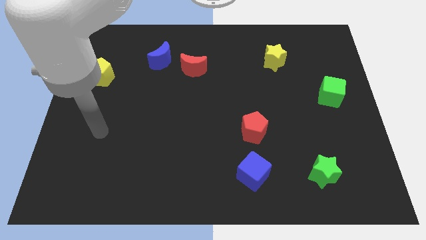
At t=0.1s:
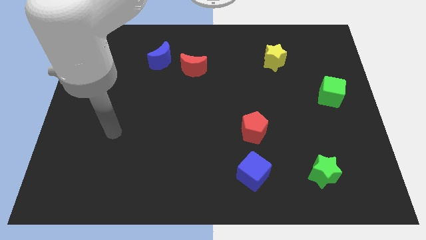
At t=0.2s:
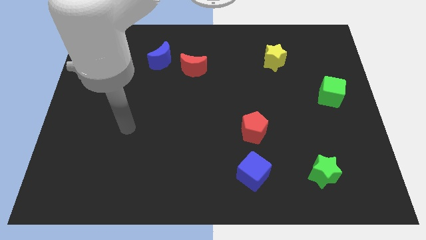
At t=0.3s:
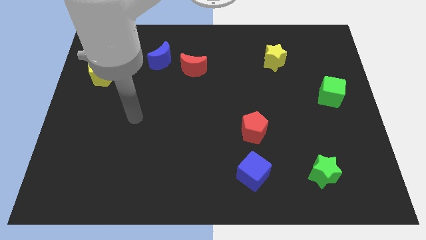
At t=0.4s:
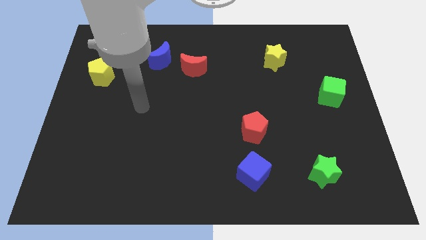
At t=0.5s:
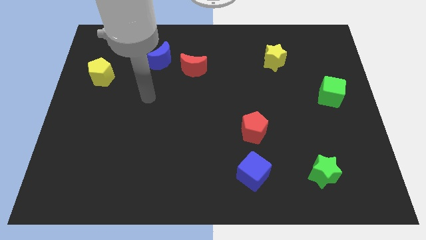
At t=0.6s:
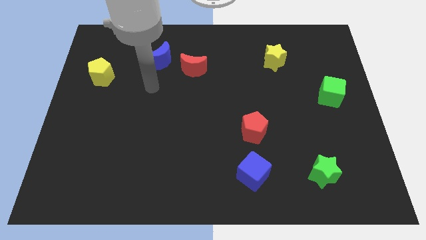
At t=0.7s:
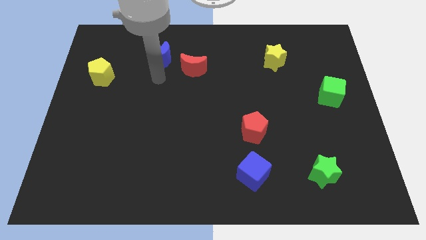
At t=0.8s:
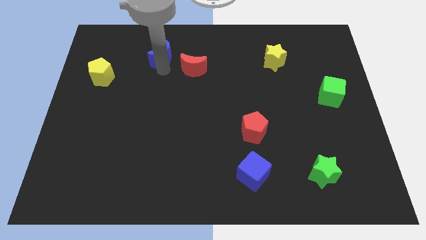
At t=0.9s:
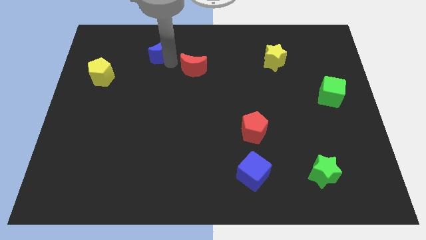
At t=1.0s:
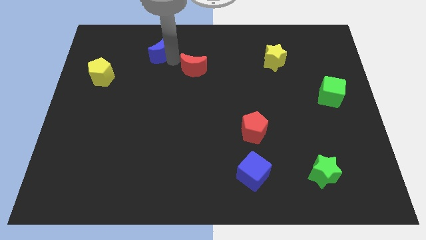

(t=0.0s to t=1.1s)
pull the red moon apart from the blue moon

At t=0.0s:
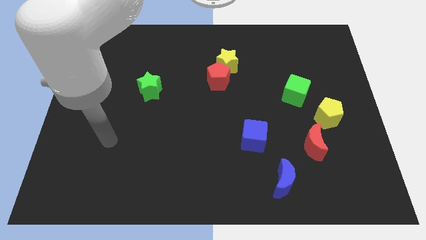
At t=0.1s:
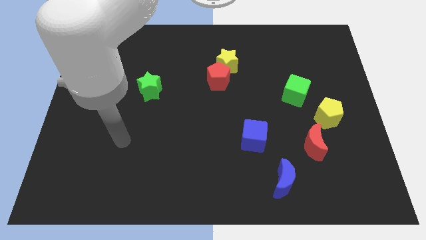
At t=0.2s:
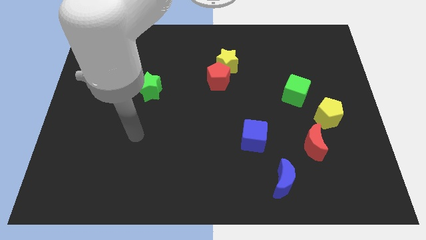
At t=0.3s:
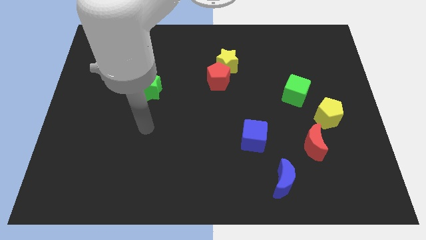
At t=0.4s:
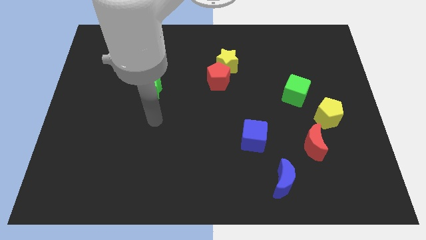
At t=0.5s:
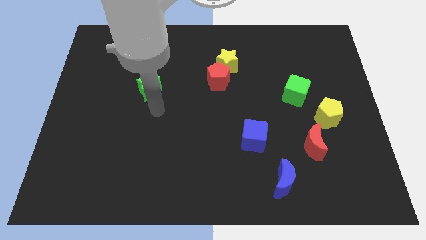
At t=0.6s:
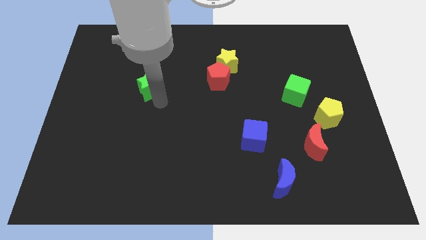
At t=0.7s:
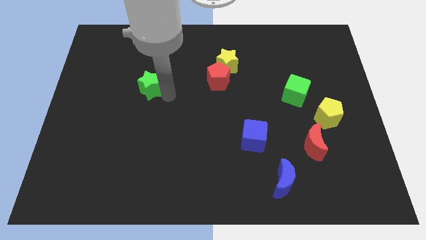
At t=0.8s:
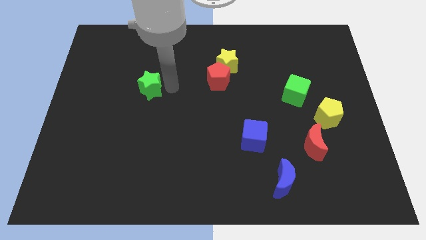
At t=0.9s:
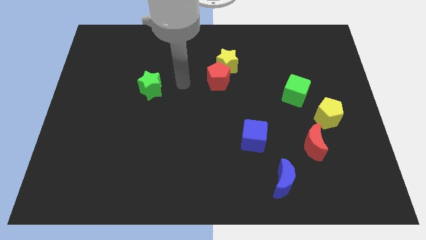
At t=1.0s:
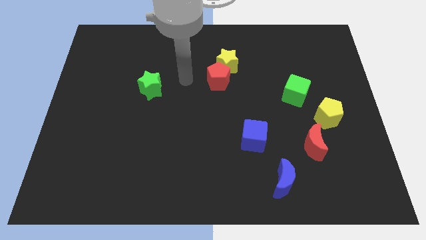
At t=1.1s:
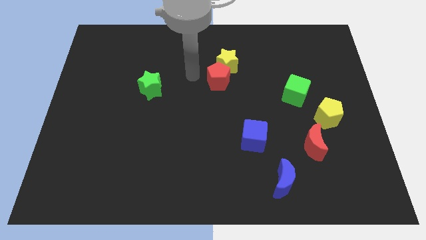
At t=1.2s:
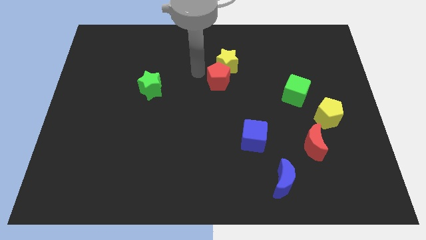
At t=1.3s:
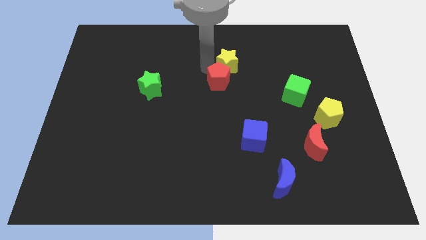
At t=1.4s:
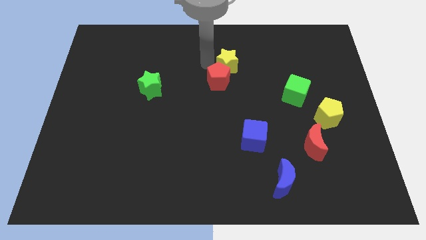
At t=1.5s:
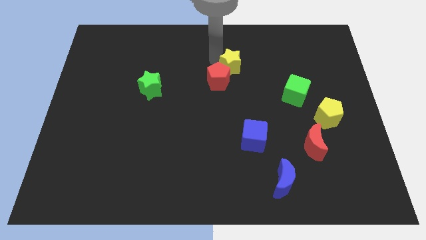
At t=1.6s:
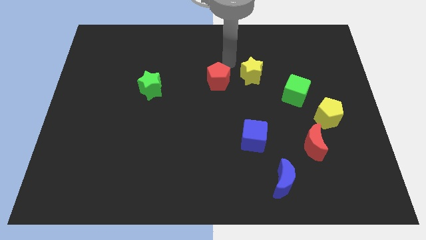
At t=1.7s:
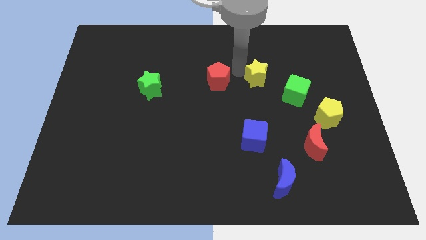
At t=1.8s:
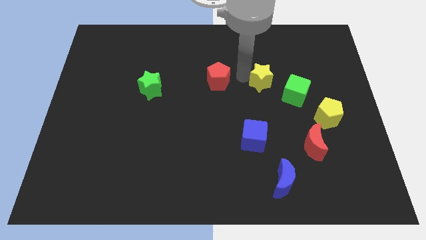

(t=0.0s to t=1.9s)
separate the red pentagon from the yellow star

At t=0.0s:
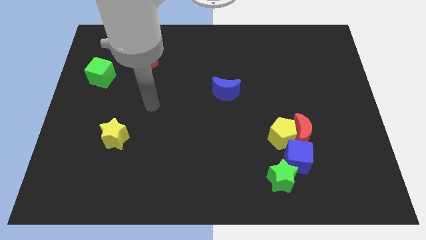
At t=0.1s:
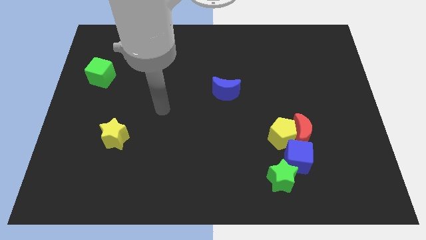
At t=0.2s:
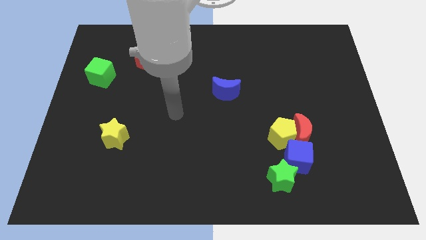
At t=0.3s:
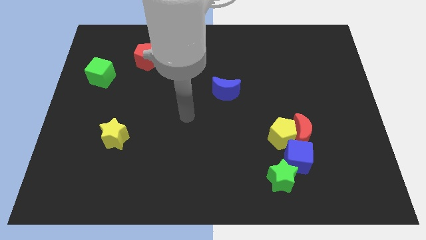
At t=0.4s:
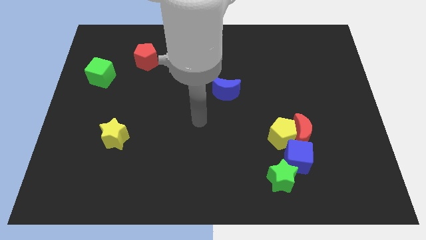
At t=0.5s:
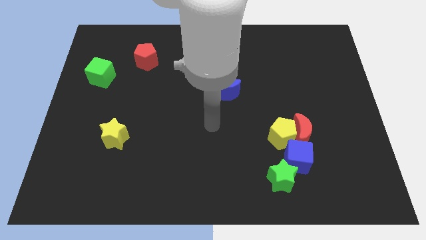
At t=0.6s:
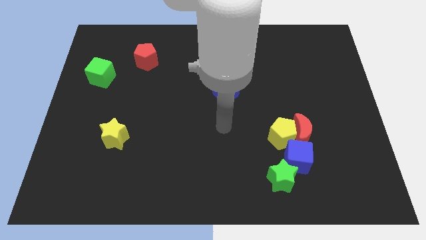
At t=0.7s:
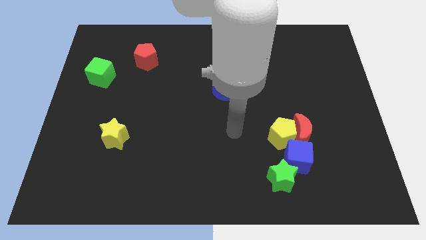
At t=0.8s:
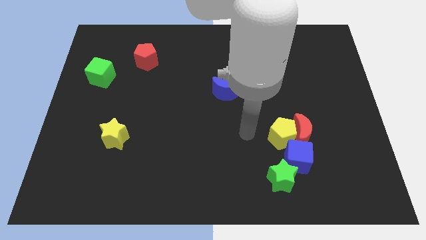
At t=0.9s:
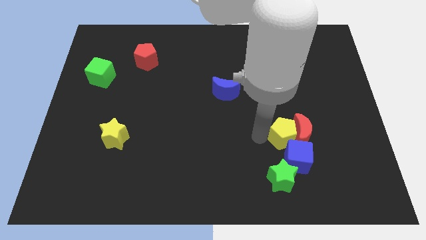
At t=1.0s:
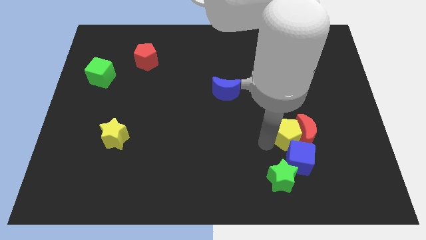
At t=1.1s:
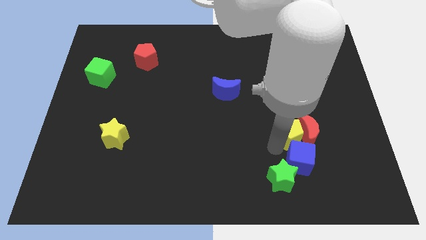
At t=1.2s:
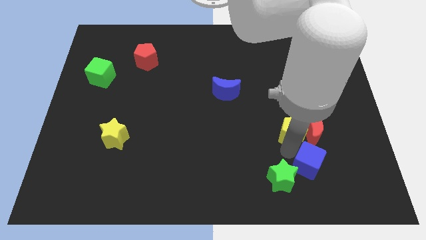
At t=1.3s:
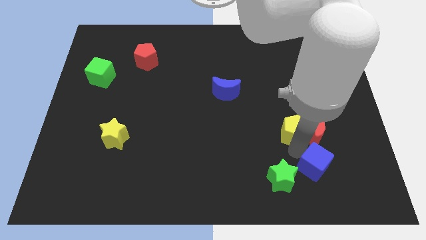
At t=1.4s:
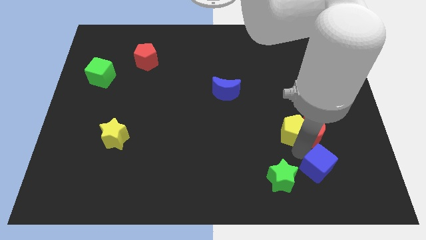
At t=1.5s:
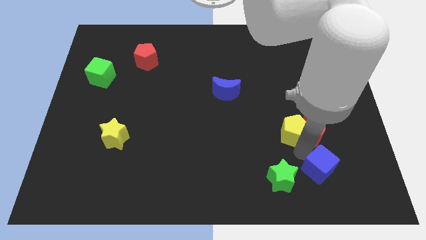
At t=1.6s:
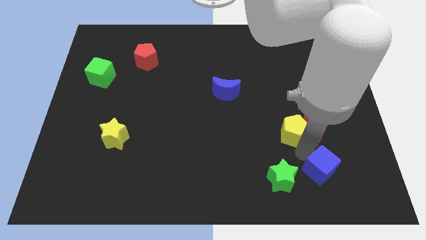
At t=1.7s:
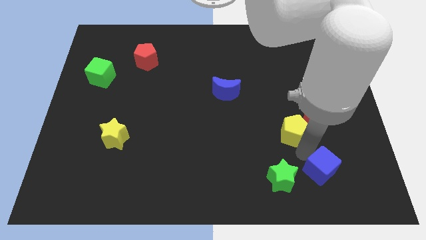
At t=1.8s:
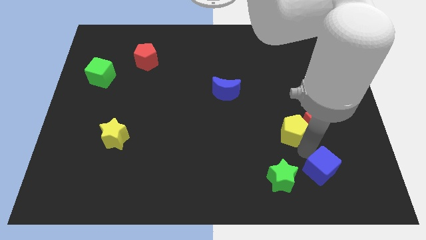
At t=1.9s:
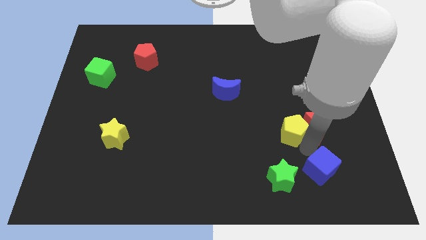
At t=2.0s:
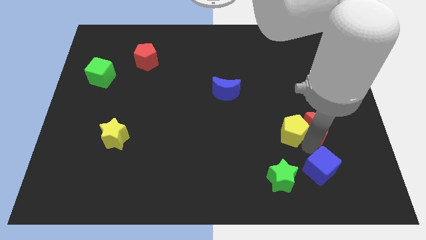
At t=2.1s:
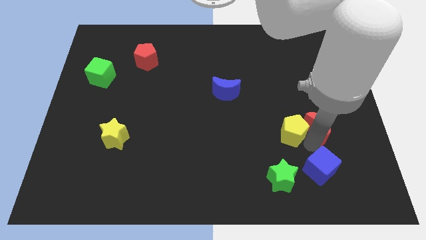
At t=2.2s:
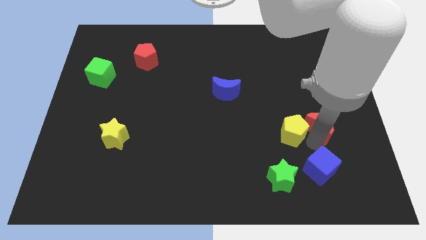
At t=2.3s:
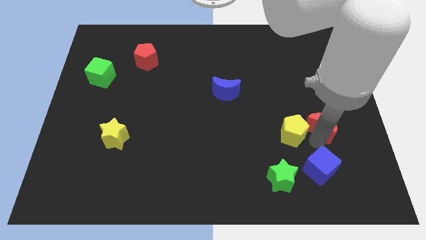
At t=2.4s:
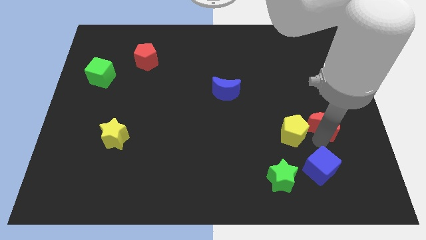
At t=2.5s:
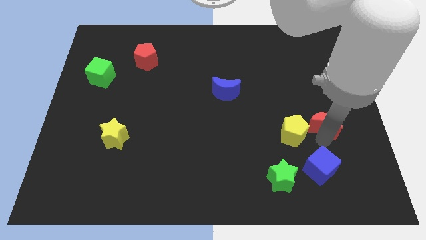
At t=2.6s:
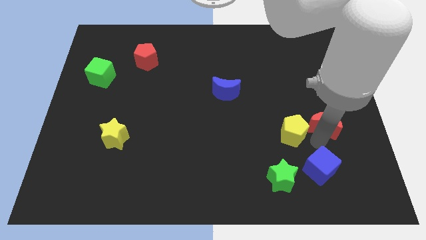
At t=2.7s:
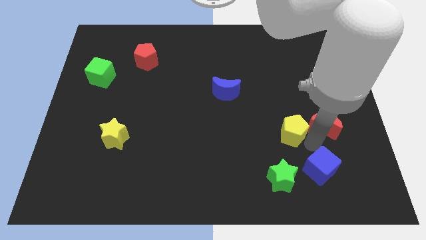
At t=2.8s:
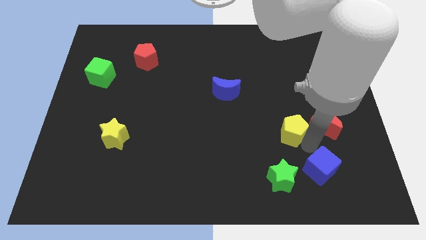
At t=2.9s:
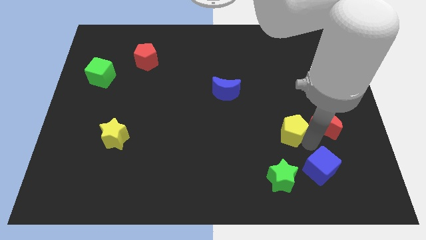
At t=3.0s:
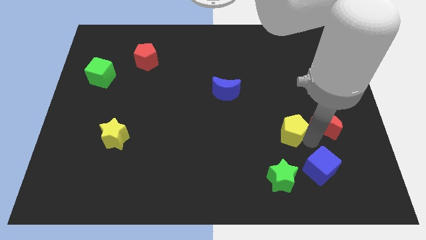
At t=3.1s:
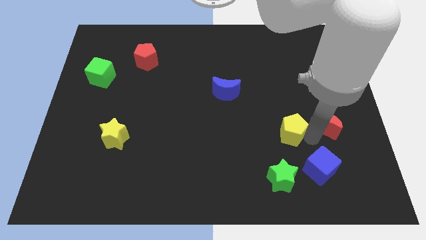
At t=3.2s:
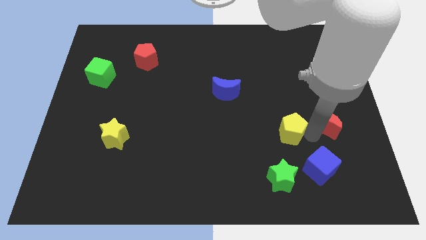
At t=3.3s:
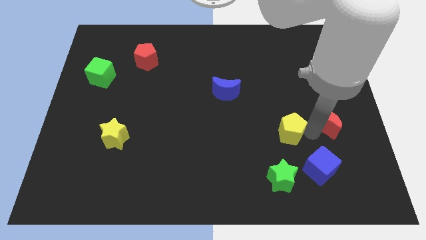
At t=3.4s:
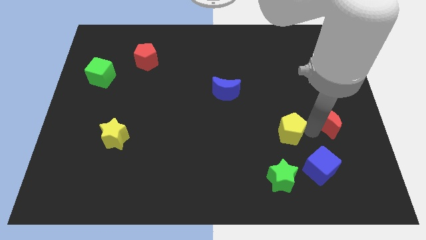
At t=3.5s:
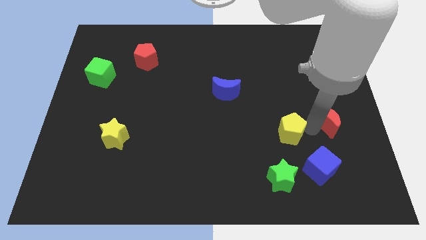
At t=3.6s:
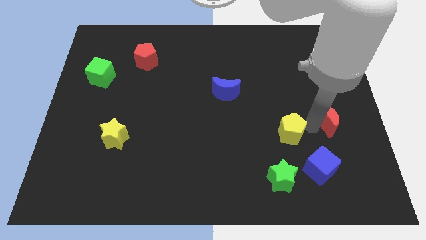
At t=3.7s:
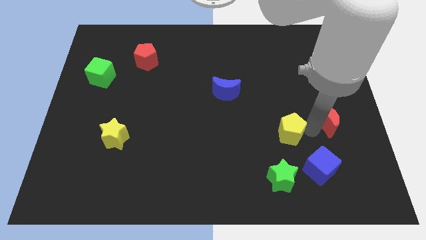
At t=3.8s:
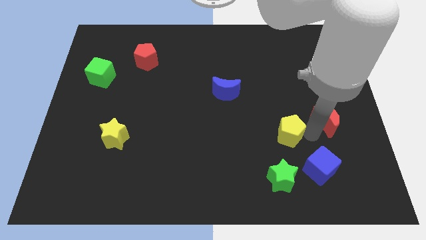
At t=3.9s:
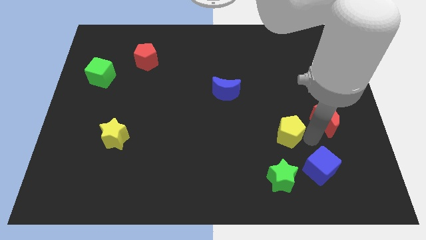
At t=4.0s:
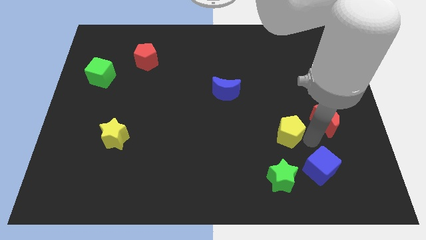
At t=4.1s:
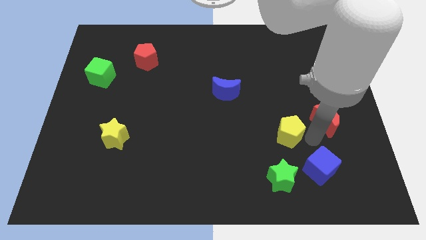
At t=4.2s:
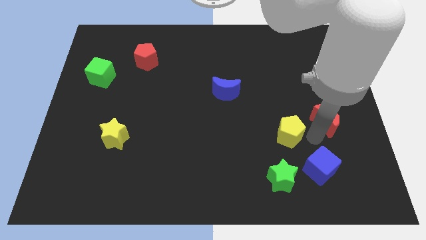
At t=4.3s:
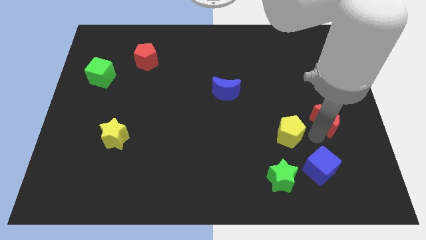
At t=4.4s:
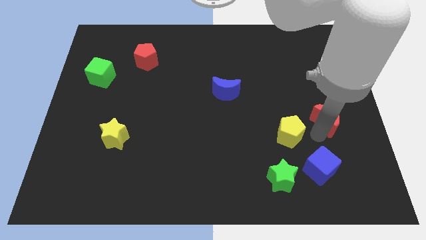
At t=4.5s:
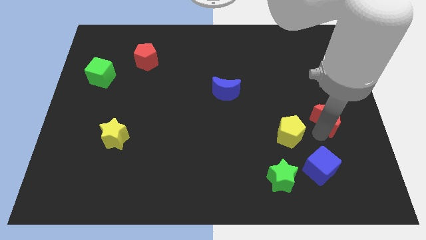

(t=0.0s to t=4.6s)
separate the red moon from the yellow pentagon and blue cube

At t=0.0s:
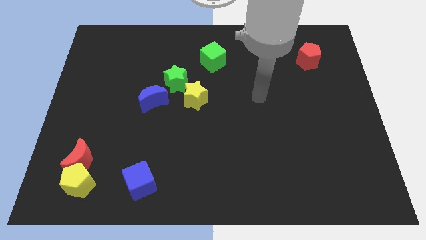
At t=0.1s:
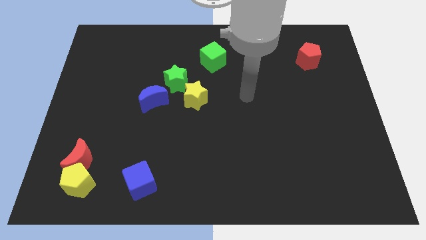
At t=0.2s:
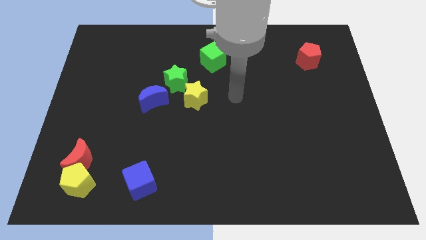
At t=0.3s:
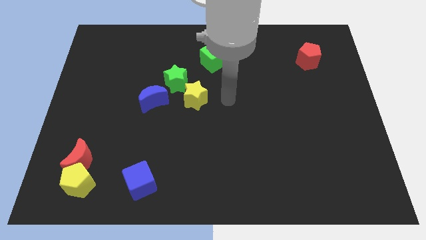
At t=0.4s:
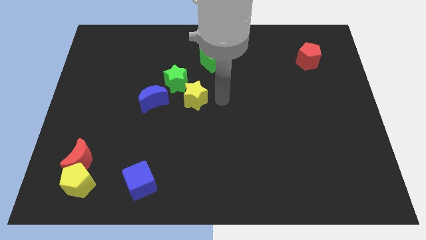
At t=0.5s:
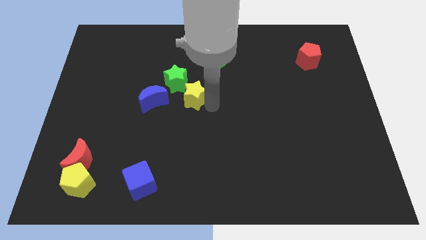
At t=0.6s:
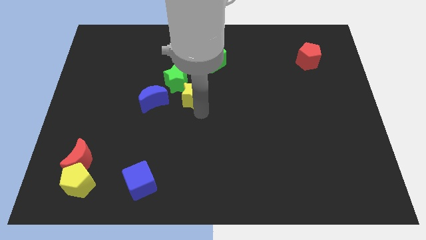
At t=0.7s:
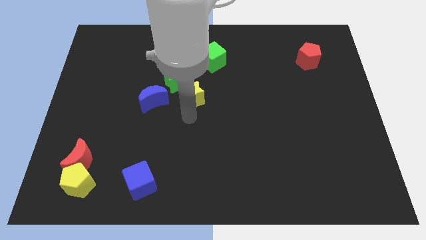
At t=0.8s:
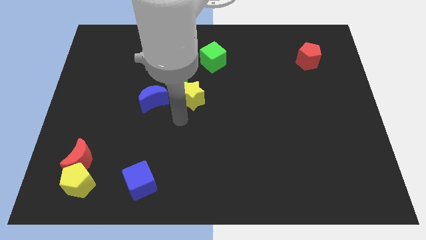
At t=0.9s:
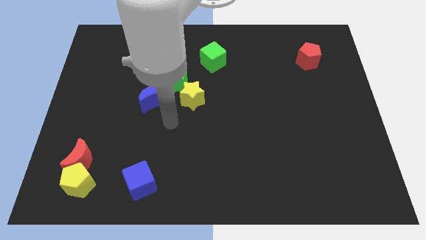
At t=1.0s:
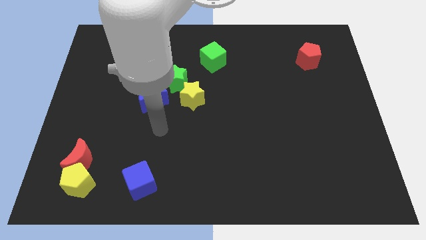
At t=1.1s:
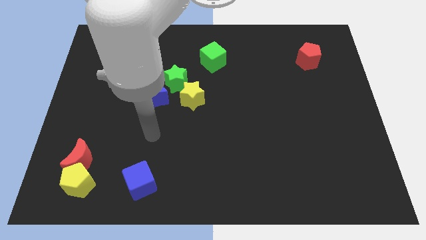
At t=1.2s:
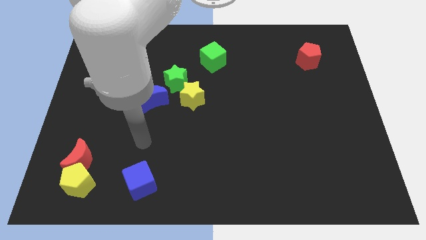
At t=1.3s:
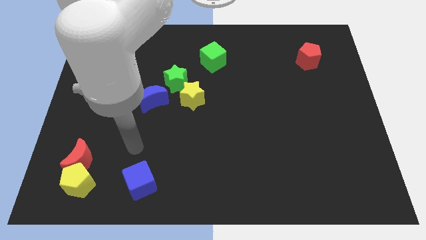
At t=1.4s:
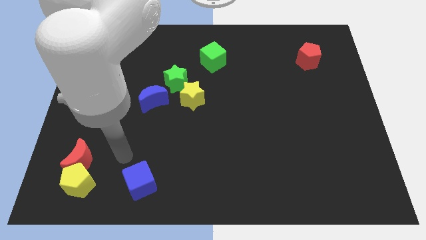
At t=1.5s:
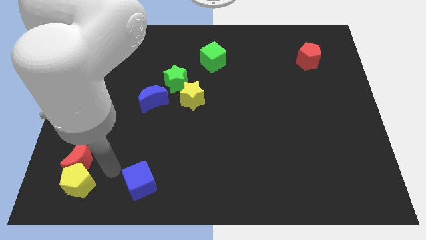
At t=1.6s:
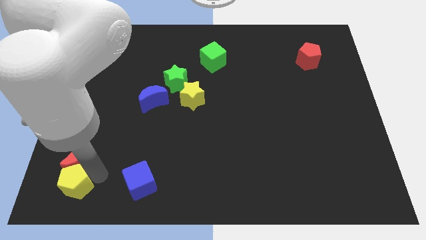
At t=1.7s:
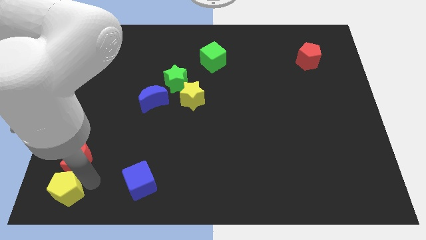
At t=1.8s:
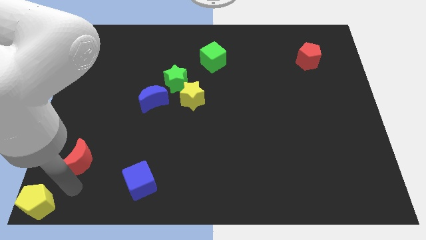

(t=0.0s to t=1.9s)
separate the red moon from the yellow pentagon
